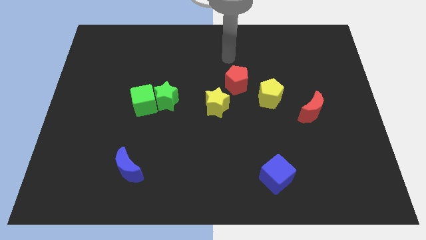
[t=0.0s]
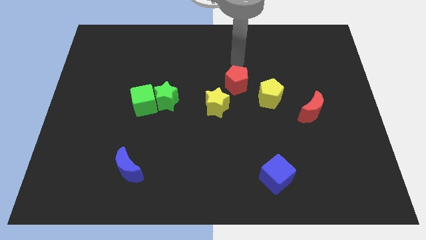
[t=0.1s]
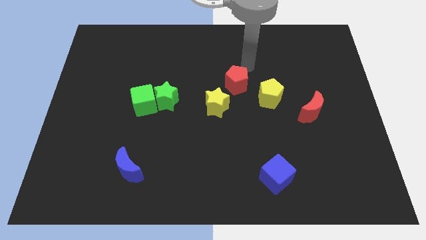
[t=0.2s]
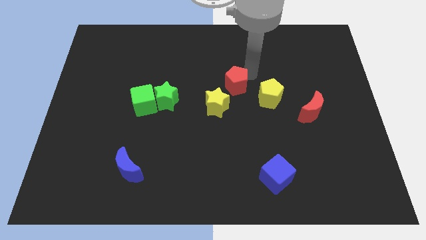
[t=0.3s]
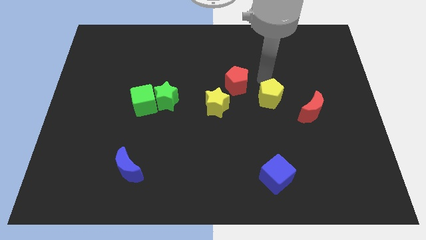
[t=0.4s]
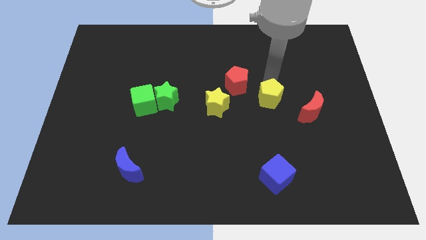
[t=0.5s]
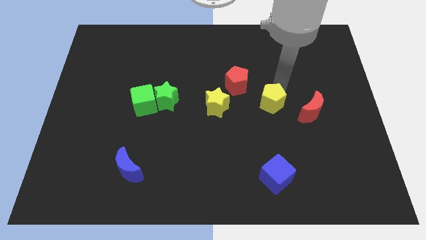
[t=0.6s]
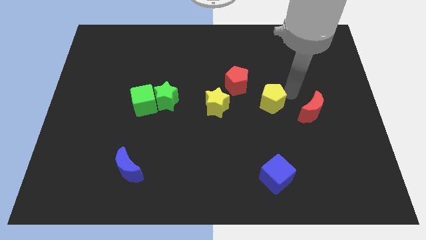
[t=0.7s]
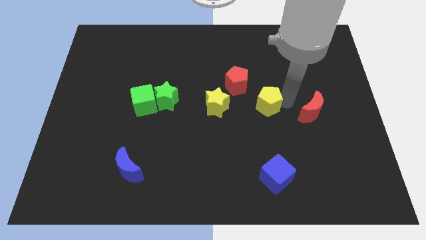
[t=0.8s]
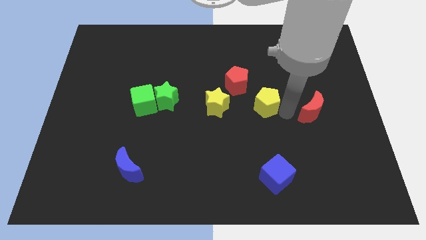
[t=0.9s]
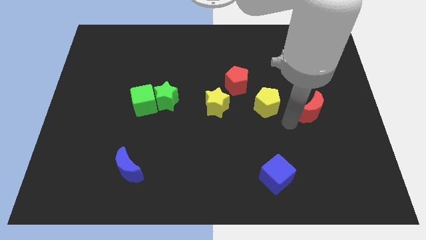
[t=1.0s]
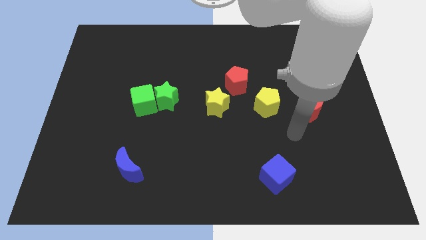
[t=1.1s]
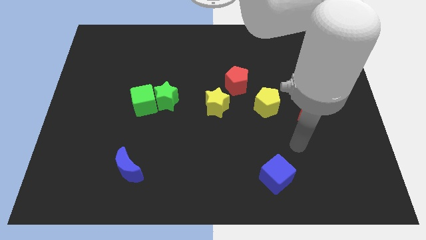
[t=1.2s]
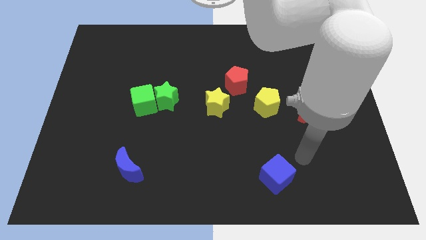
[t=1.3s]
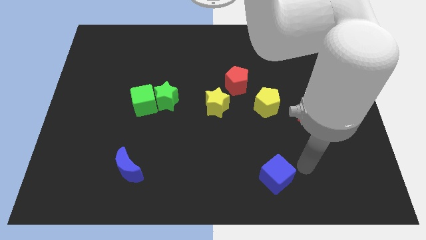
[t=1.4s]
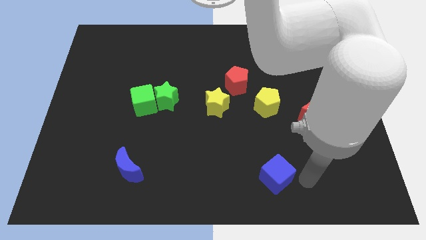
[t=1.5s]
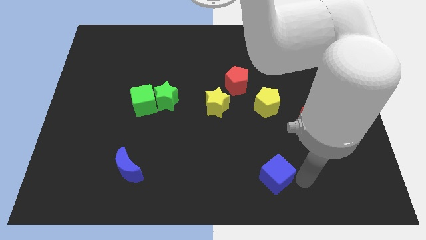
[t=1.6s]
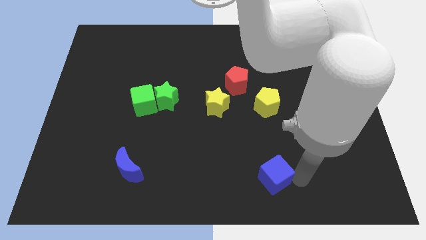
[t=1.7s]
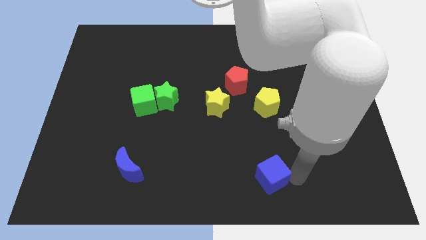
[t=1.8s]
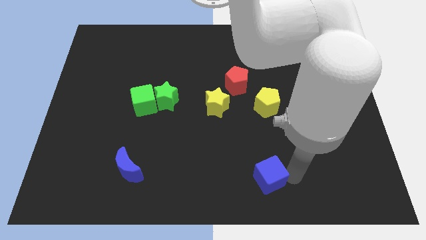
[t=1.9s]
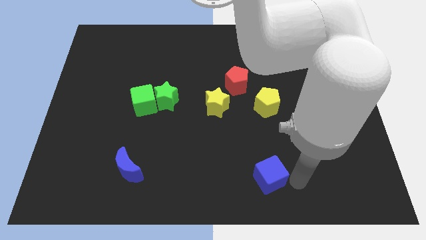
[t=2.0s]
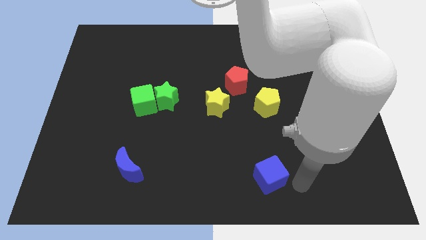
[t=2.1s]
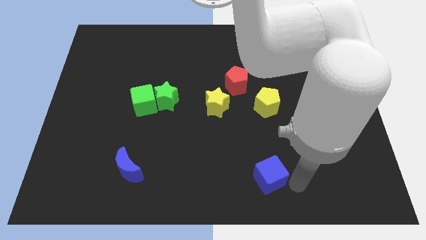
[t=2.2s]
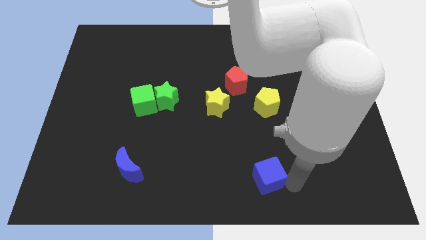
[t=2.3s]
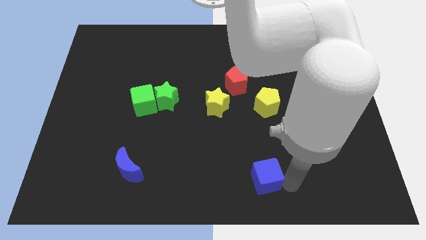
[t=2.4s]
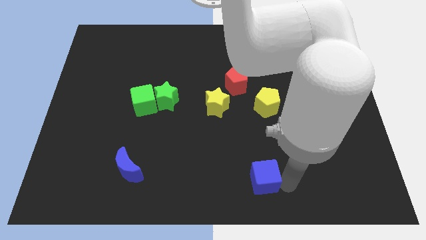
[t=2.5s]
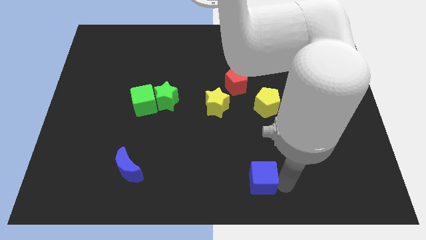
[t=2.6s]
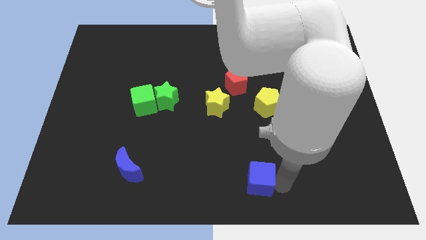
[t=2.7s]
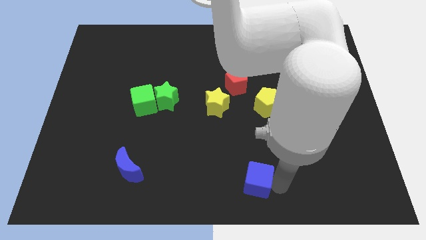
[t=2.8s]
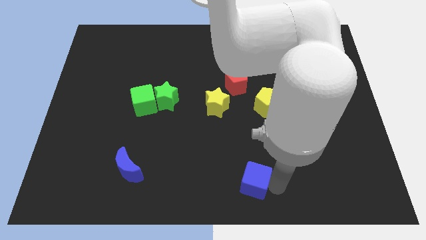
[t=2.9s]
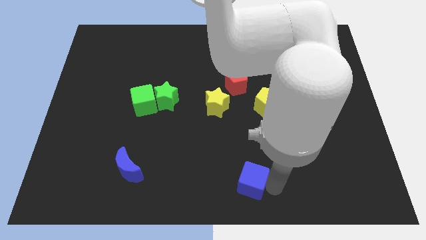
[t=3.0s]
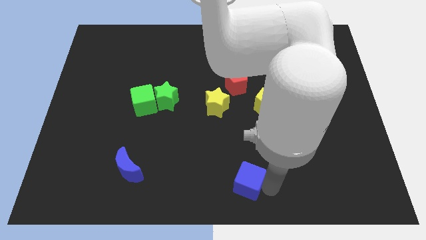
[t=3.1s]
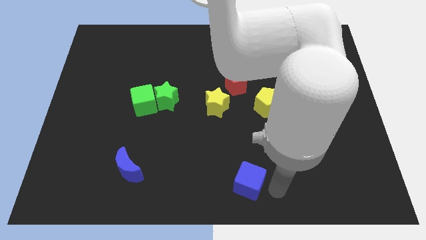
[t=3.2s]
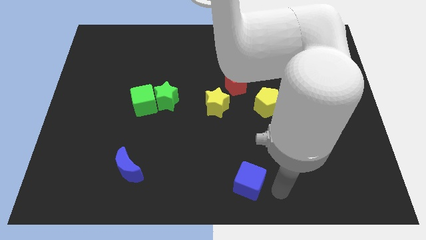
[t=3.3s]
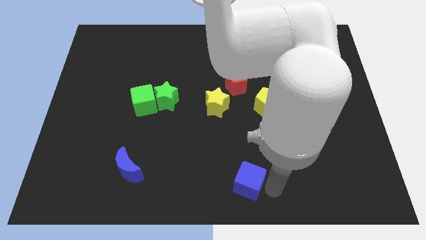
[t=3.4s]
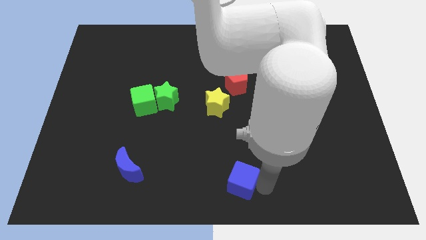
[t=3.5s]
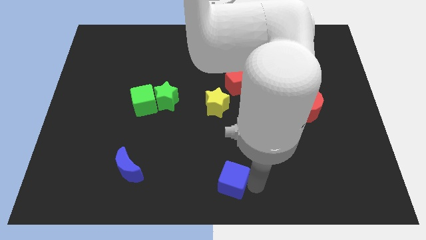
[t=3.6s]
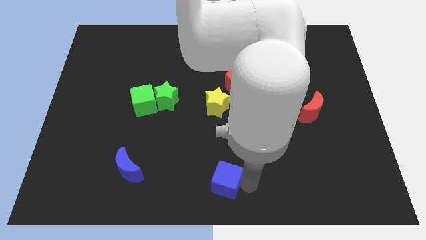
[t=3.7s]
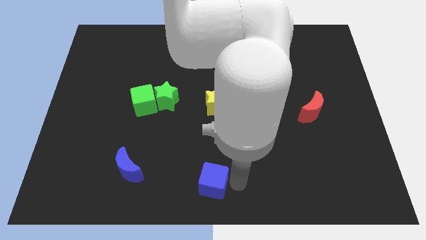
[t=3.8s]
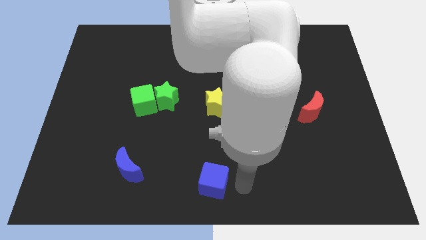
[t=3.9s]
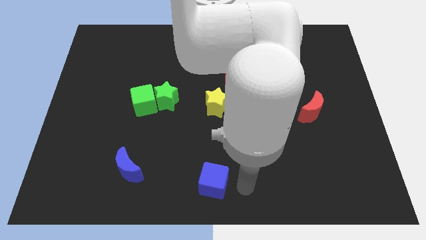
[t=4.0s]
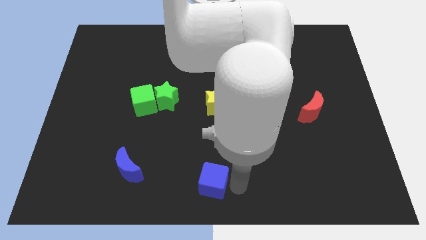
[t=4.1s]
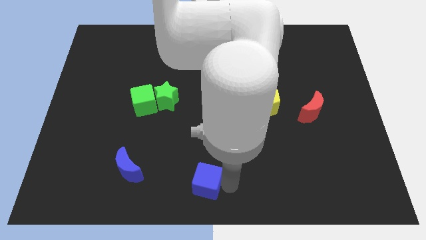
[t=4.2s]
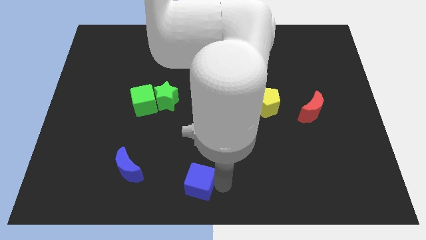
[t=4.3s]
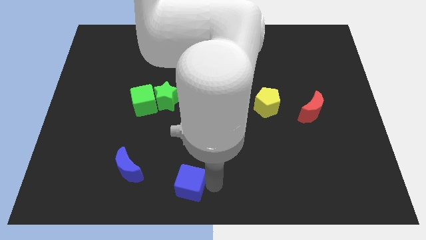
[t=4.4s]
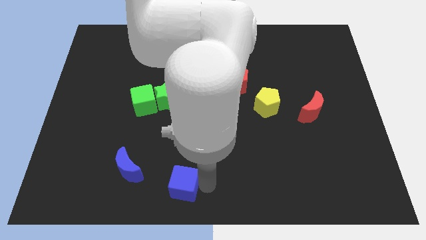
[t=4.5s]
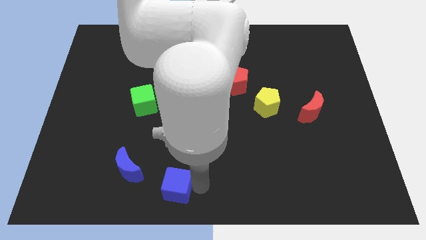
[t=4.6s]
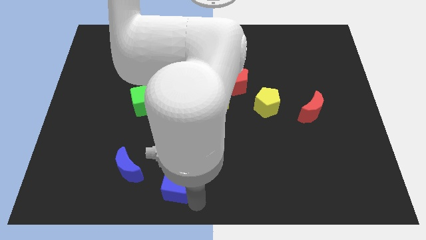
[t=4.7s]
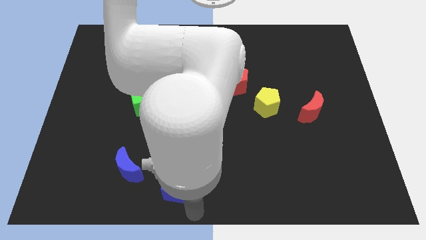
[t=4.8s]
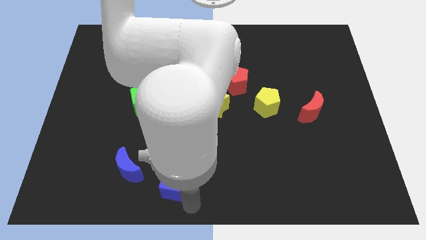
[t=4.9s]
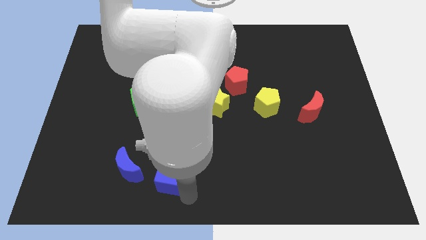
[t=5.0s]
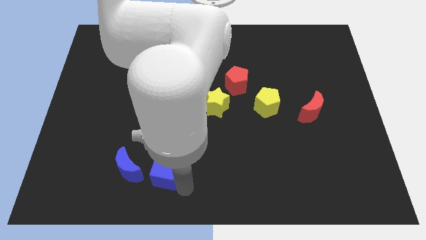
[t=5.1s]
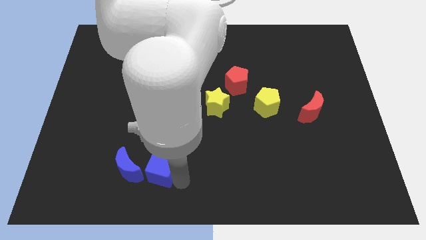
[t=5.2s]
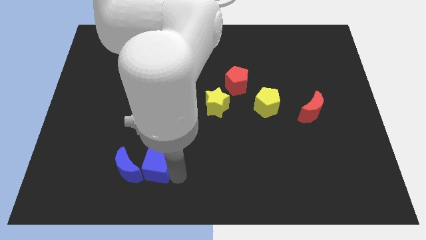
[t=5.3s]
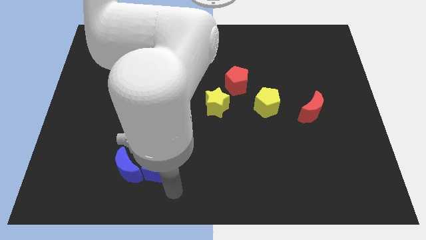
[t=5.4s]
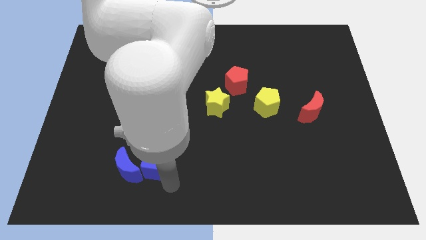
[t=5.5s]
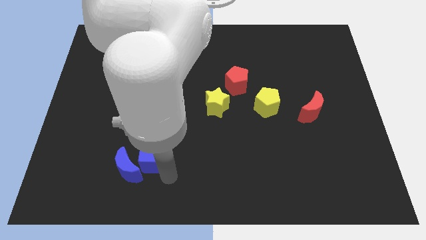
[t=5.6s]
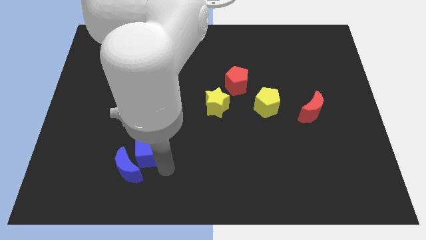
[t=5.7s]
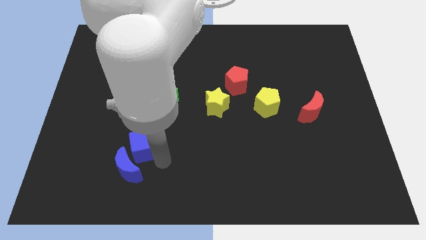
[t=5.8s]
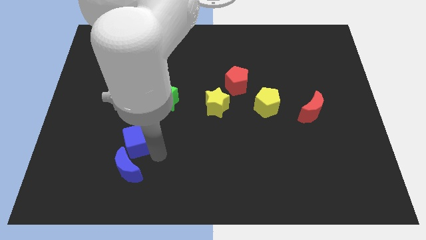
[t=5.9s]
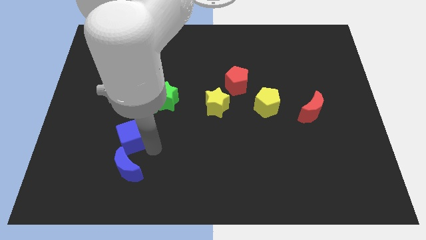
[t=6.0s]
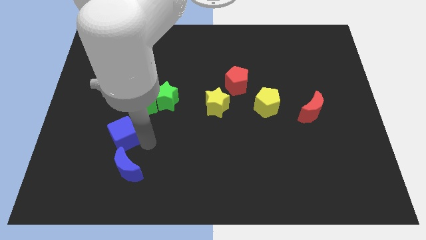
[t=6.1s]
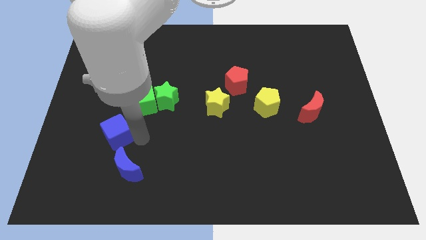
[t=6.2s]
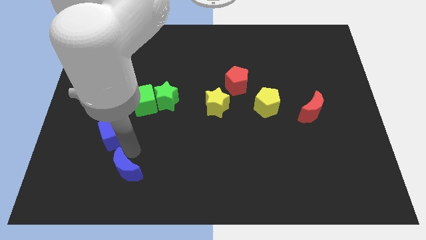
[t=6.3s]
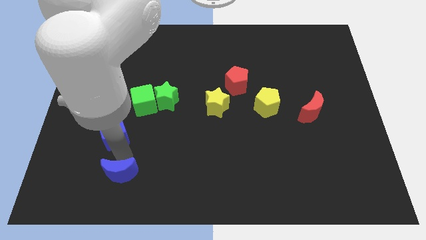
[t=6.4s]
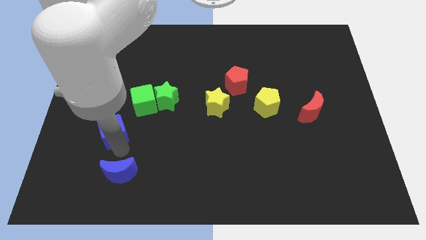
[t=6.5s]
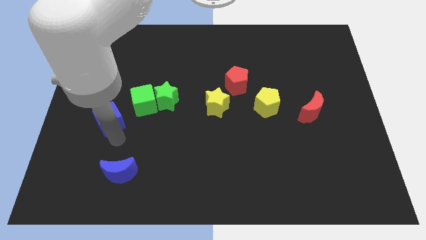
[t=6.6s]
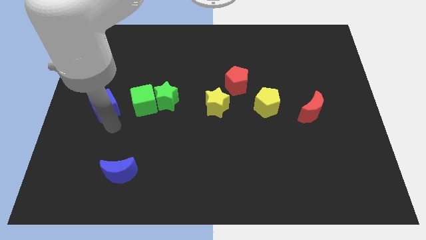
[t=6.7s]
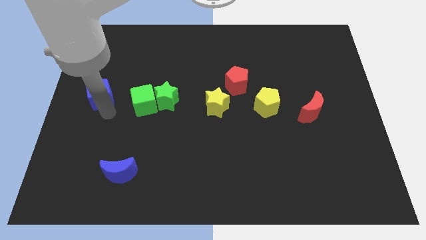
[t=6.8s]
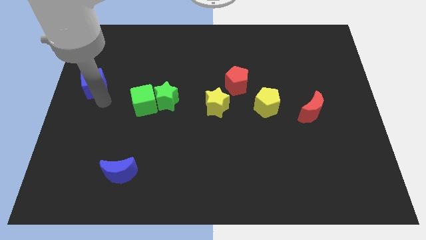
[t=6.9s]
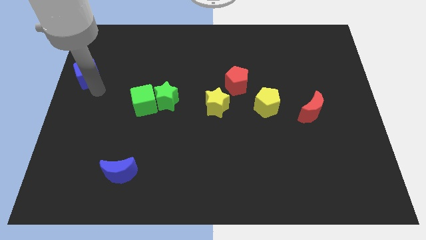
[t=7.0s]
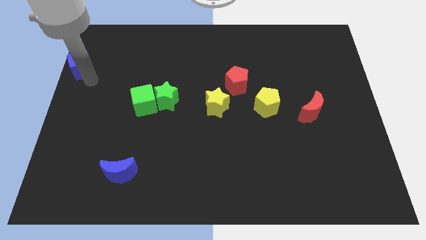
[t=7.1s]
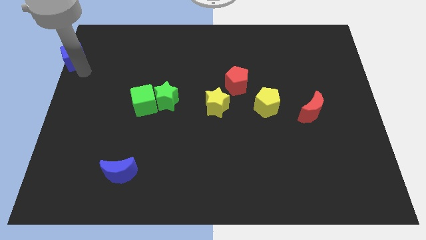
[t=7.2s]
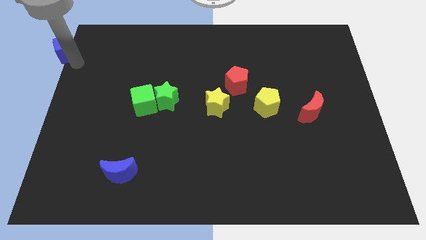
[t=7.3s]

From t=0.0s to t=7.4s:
put the blue cube to the top left
